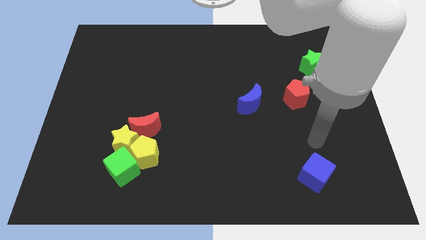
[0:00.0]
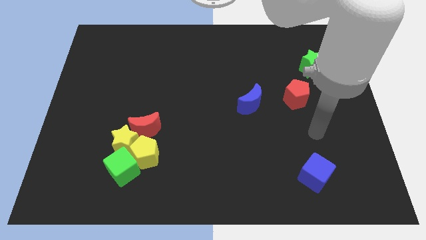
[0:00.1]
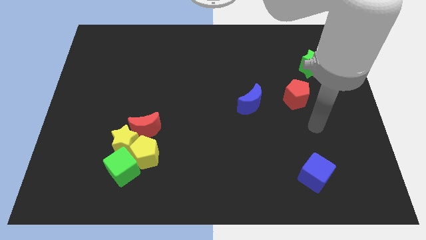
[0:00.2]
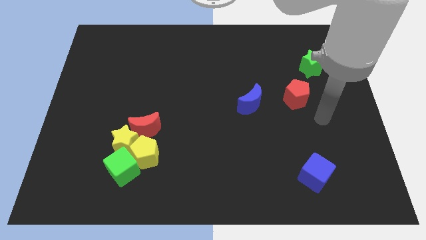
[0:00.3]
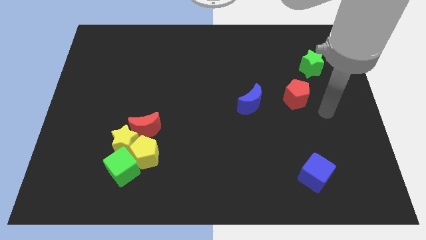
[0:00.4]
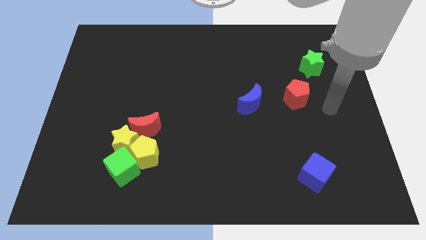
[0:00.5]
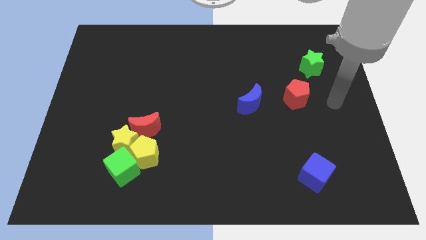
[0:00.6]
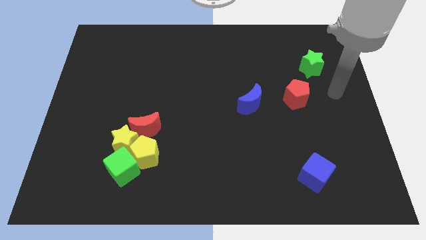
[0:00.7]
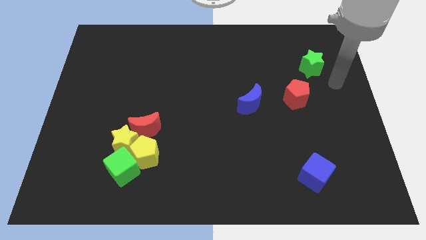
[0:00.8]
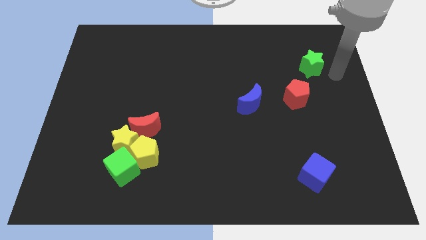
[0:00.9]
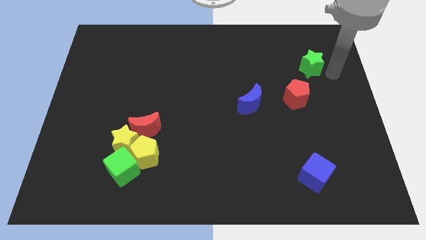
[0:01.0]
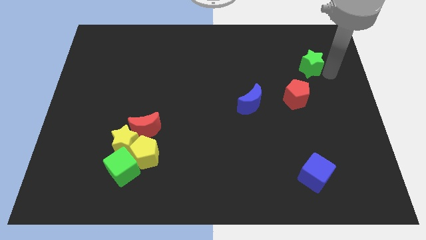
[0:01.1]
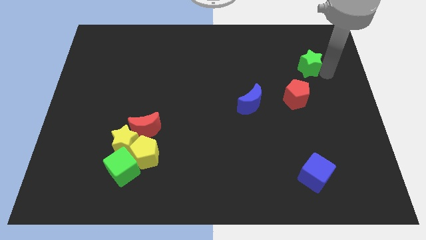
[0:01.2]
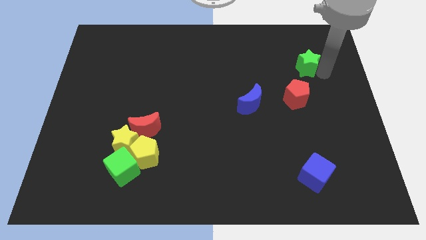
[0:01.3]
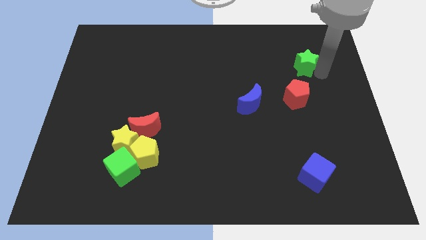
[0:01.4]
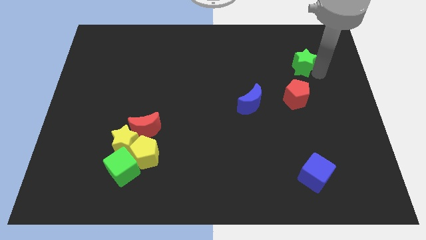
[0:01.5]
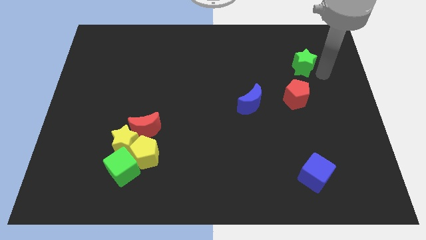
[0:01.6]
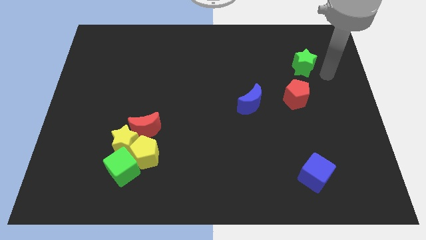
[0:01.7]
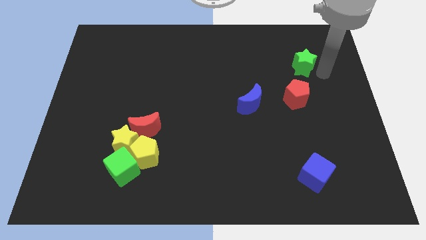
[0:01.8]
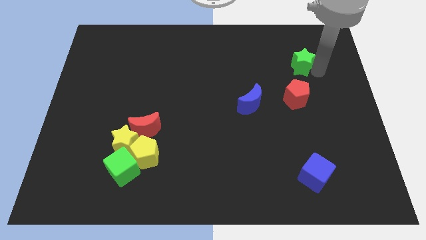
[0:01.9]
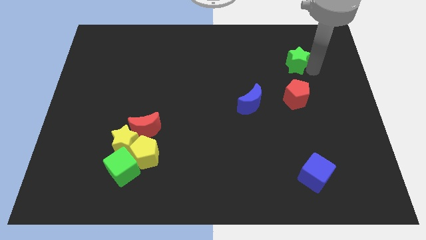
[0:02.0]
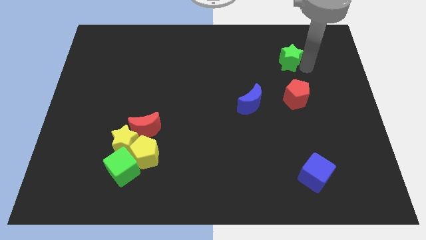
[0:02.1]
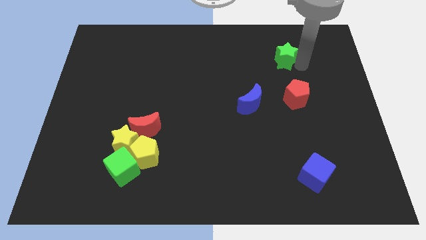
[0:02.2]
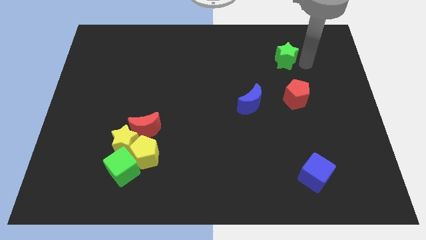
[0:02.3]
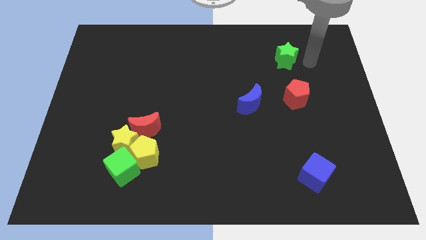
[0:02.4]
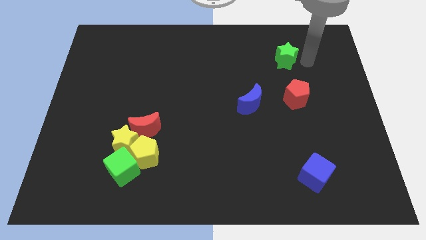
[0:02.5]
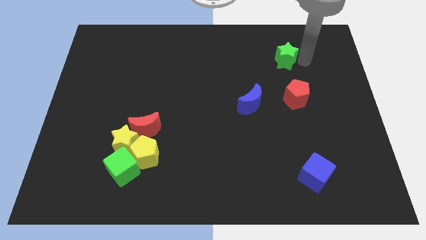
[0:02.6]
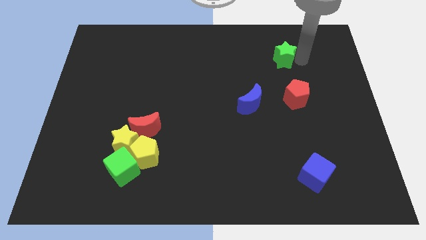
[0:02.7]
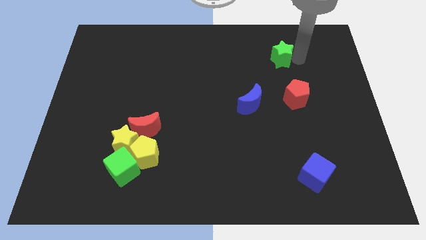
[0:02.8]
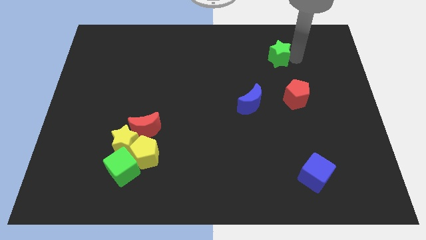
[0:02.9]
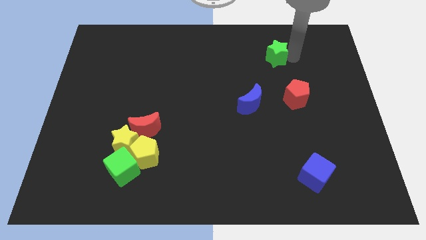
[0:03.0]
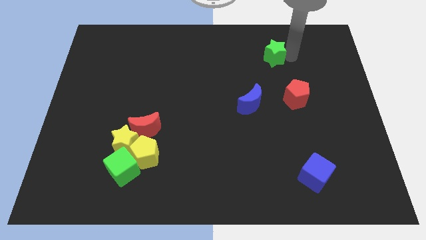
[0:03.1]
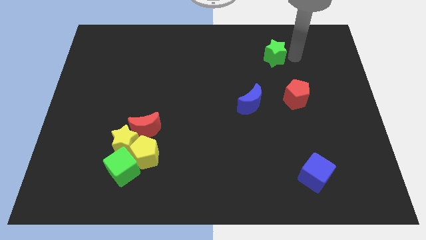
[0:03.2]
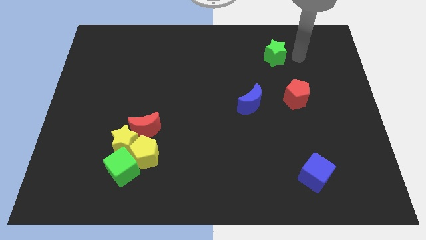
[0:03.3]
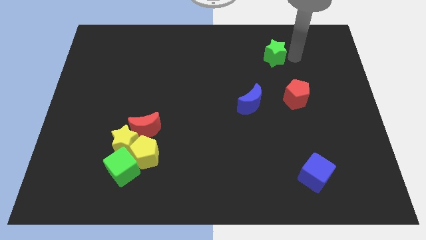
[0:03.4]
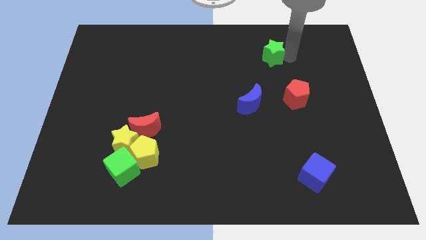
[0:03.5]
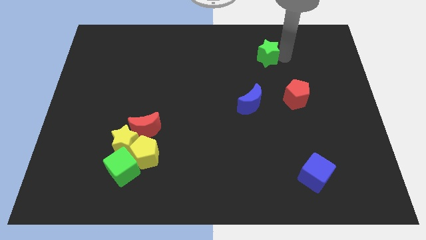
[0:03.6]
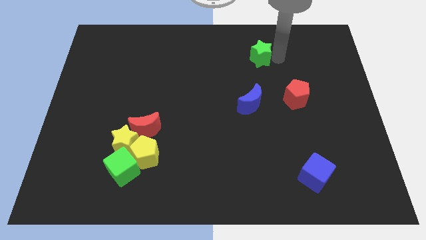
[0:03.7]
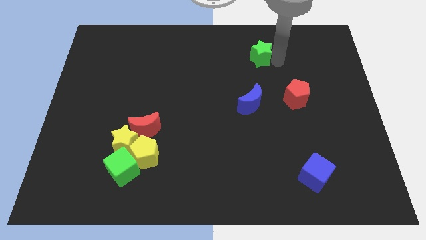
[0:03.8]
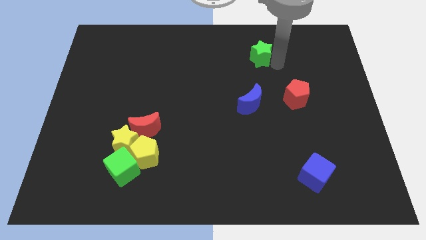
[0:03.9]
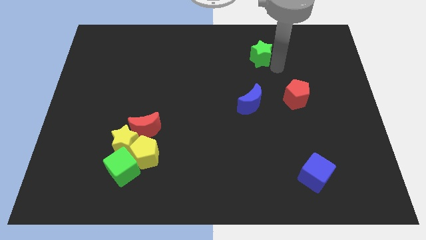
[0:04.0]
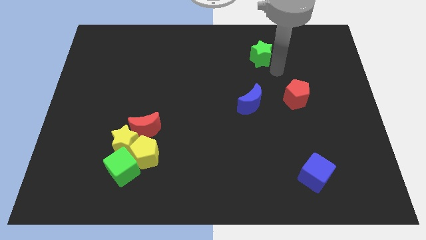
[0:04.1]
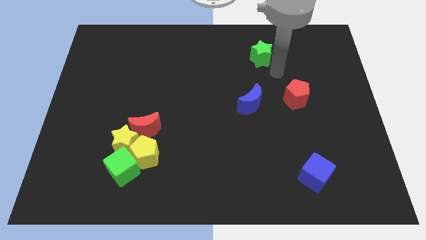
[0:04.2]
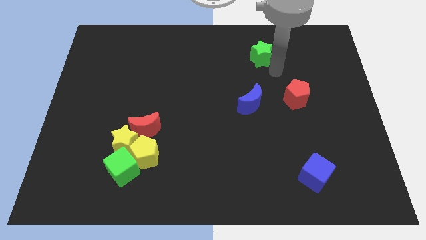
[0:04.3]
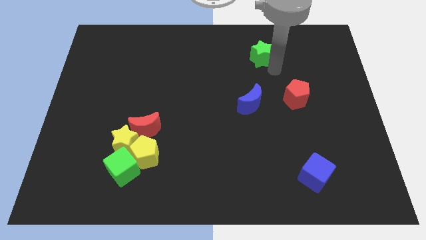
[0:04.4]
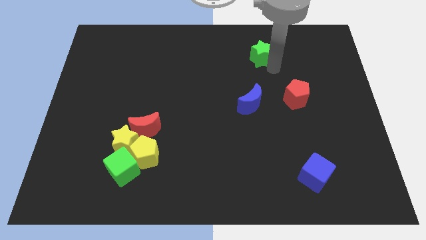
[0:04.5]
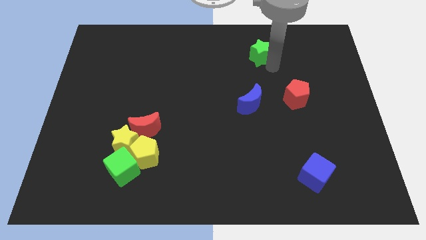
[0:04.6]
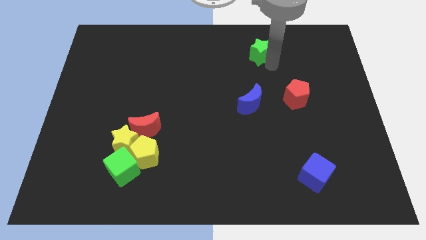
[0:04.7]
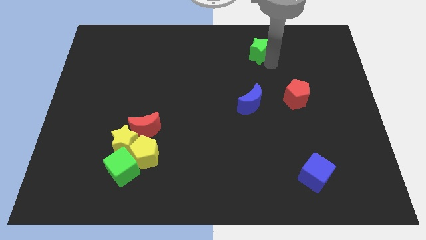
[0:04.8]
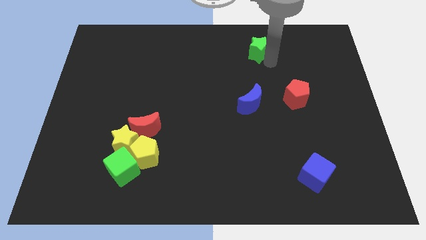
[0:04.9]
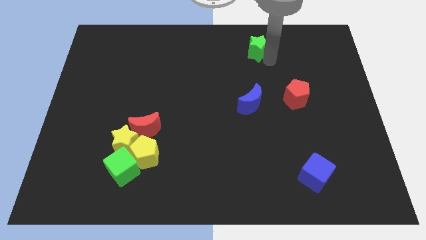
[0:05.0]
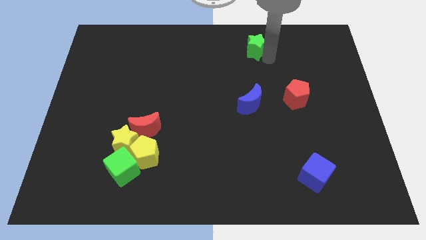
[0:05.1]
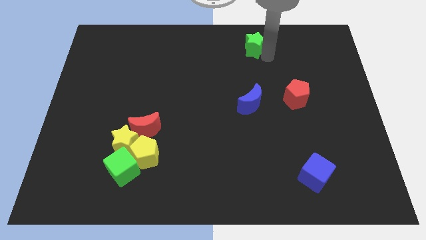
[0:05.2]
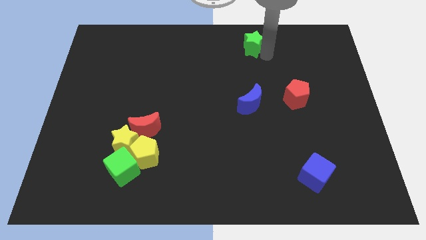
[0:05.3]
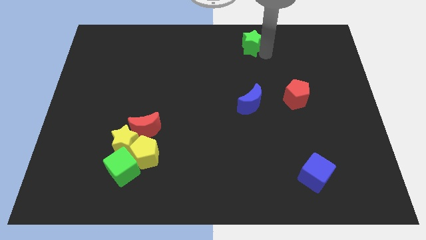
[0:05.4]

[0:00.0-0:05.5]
move the green star to the top
